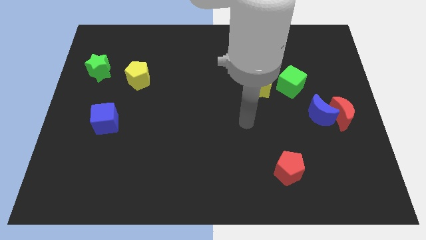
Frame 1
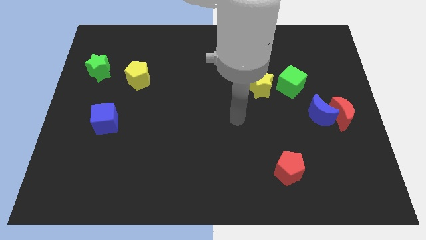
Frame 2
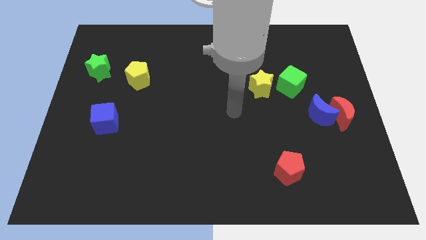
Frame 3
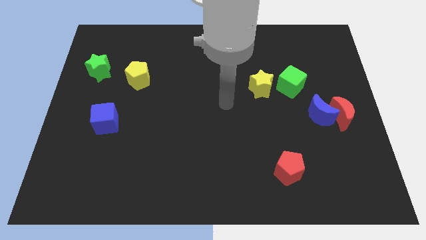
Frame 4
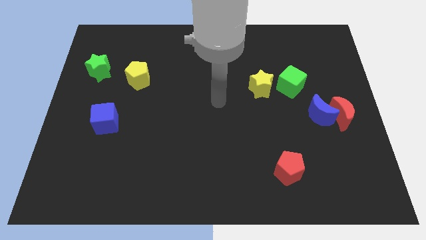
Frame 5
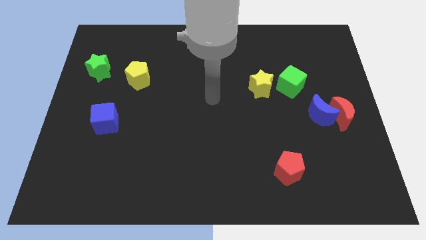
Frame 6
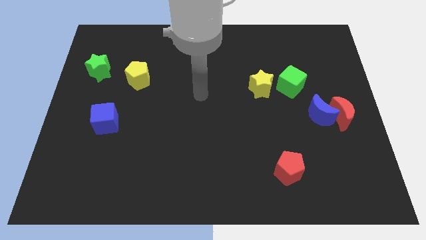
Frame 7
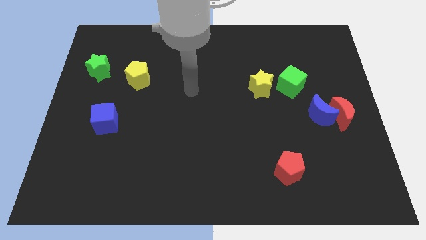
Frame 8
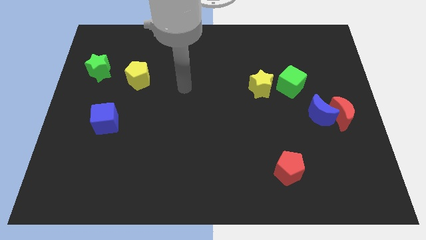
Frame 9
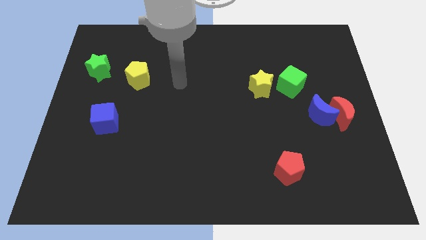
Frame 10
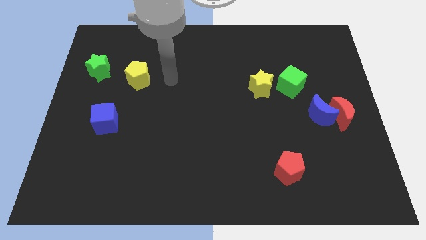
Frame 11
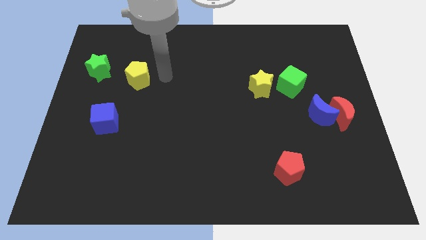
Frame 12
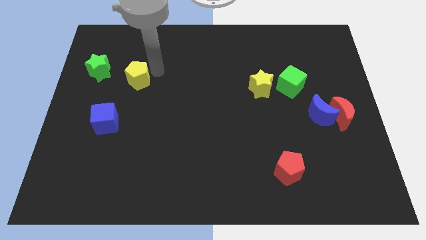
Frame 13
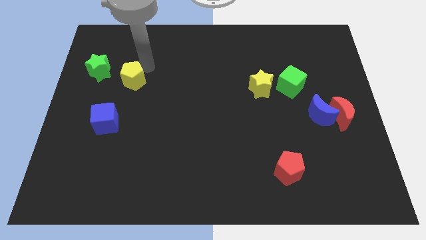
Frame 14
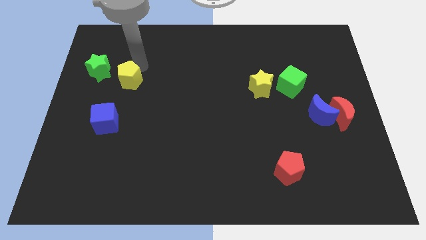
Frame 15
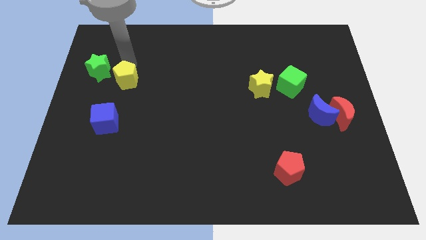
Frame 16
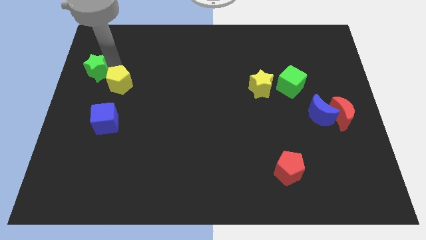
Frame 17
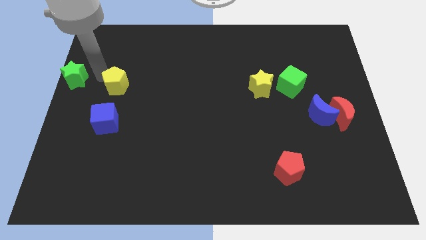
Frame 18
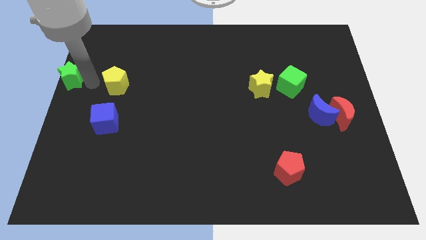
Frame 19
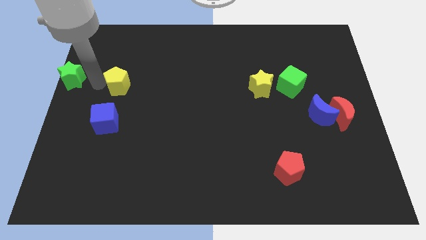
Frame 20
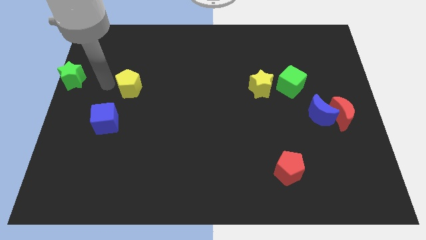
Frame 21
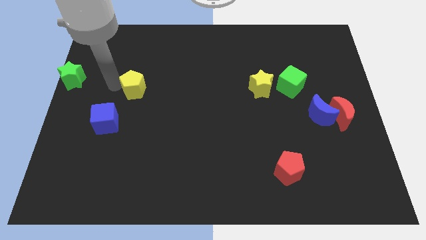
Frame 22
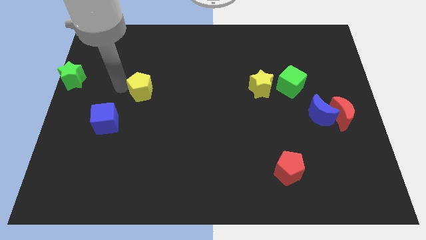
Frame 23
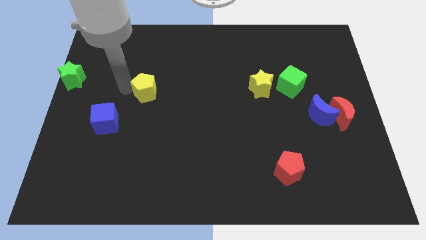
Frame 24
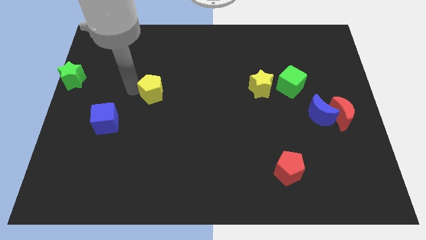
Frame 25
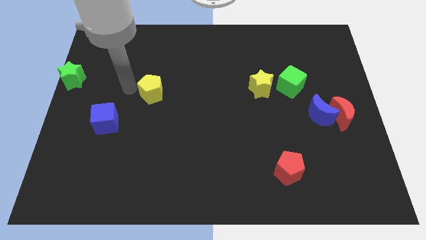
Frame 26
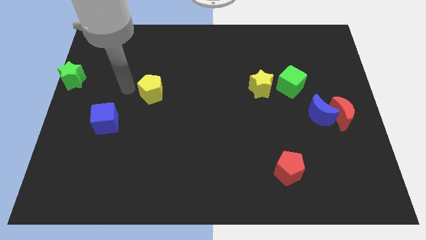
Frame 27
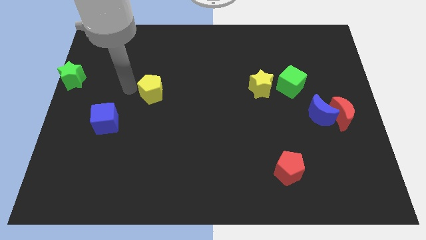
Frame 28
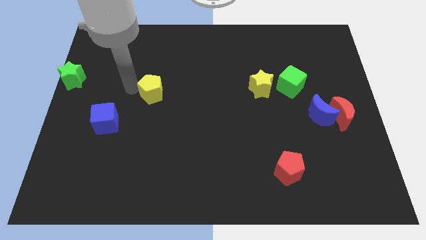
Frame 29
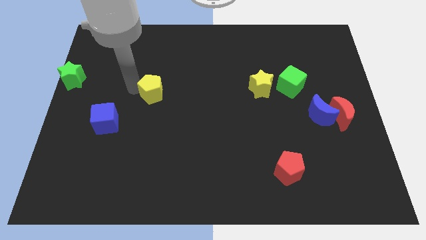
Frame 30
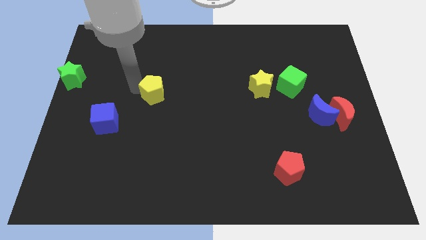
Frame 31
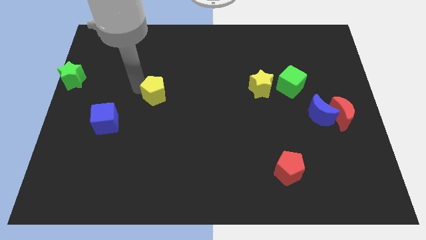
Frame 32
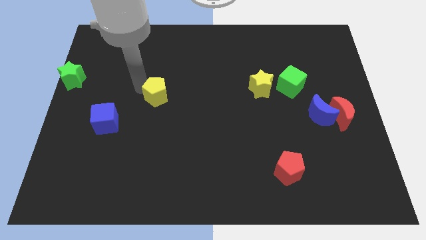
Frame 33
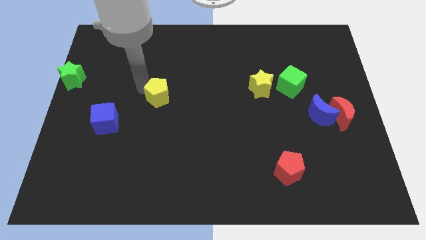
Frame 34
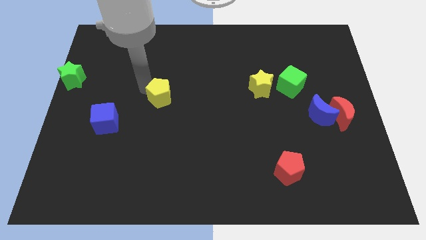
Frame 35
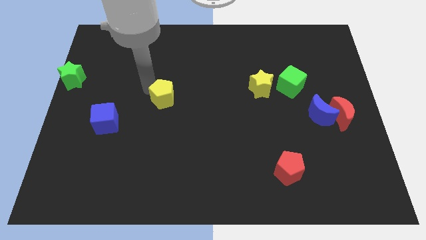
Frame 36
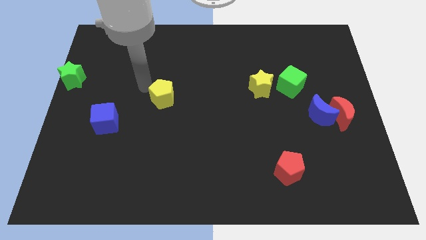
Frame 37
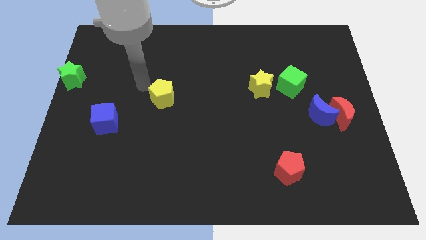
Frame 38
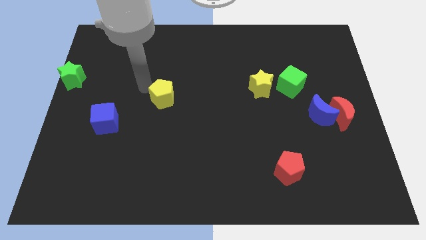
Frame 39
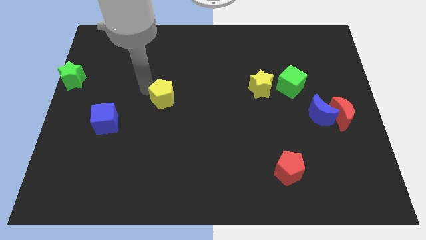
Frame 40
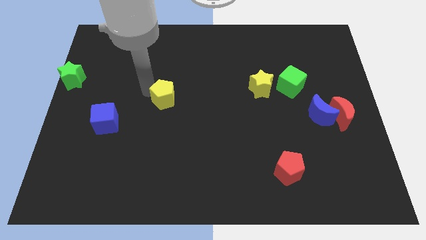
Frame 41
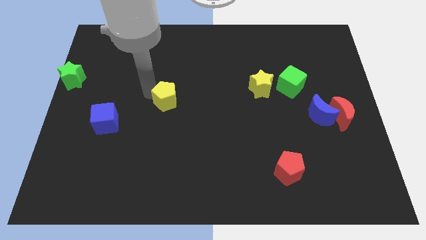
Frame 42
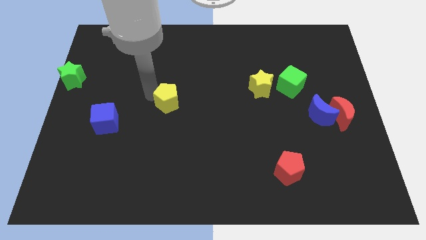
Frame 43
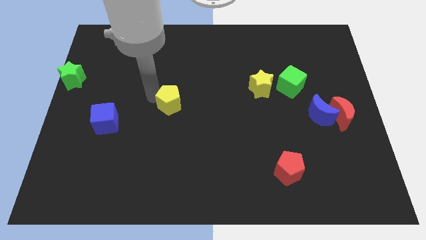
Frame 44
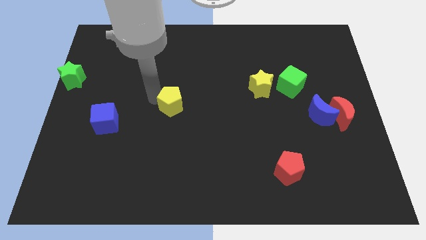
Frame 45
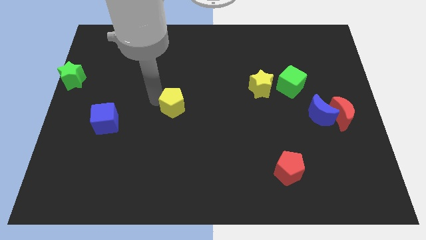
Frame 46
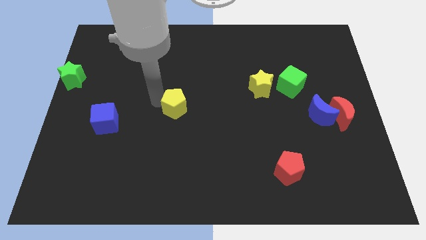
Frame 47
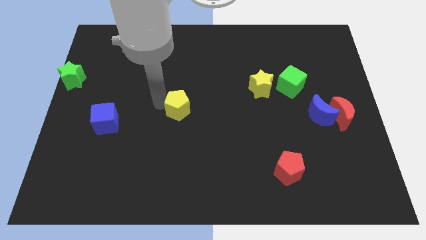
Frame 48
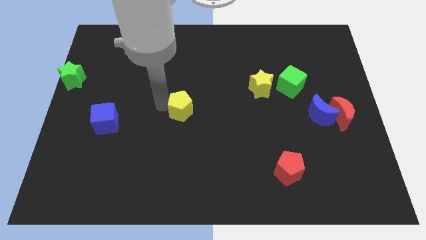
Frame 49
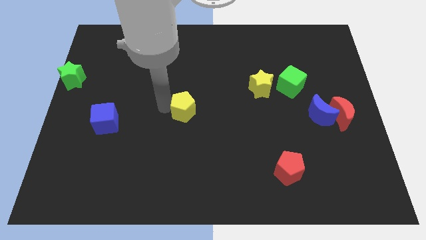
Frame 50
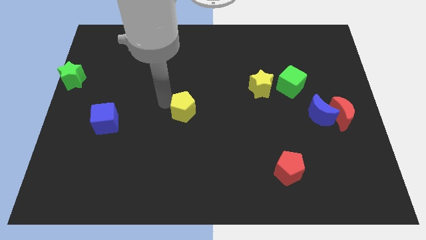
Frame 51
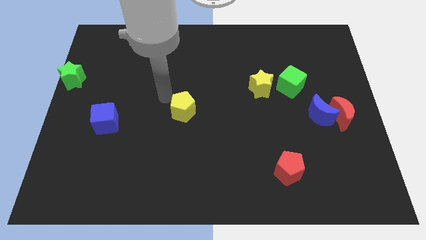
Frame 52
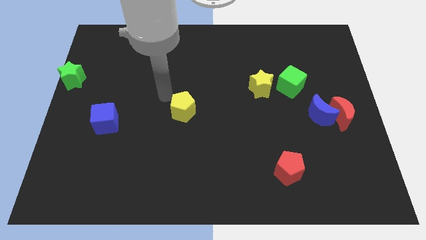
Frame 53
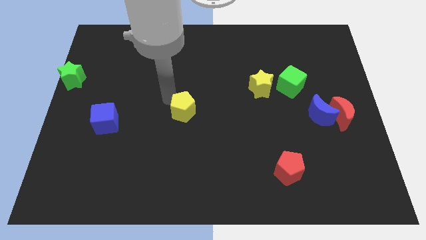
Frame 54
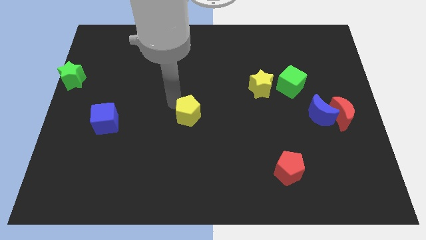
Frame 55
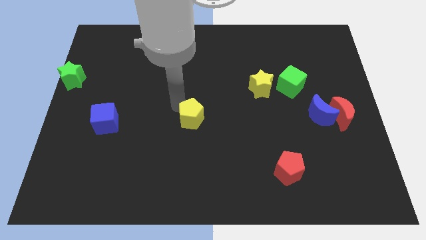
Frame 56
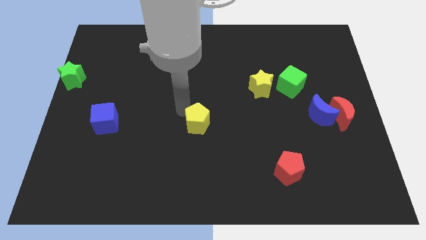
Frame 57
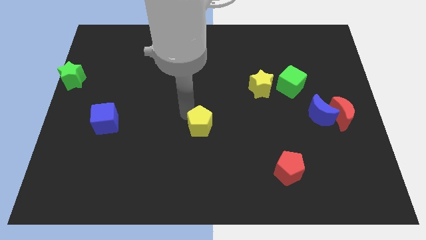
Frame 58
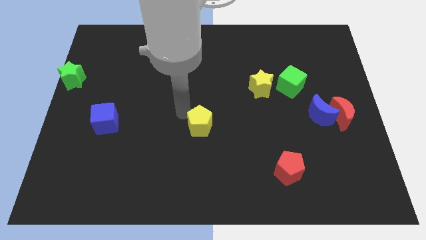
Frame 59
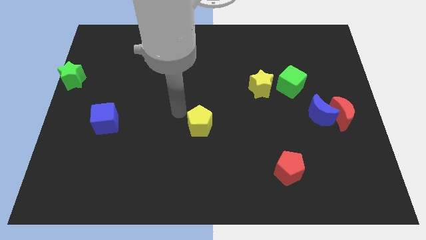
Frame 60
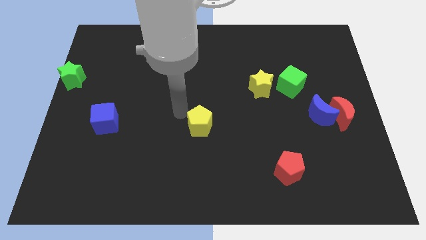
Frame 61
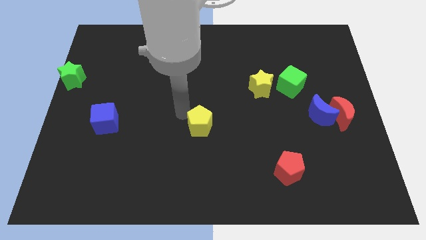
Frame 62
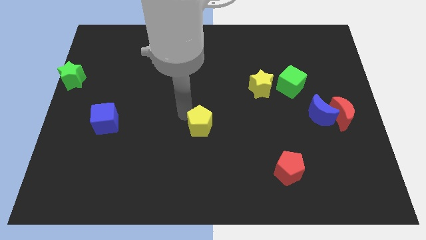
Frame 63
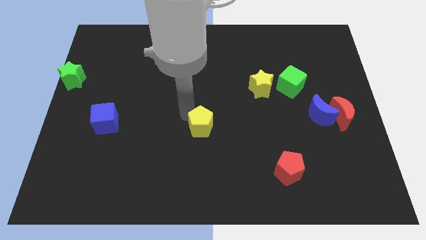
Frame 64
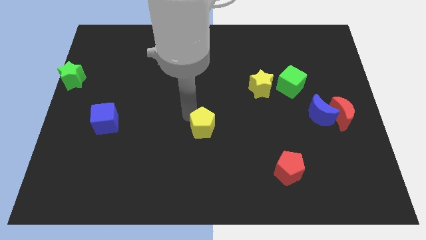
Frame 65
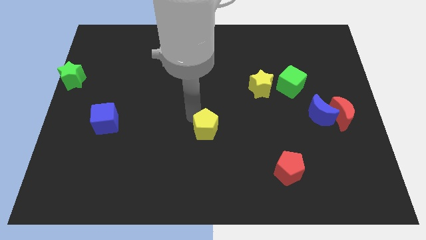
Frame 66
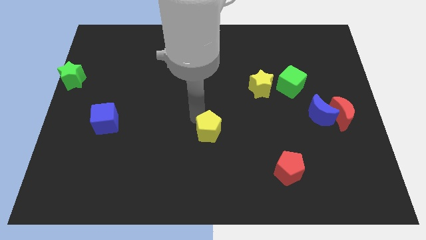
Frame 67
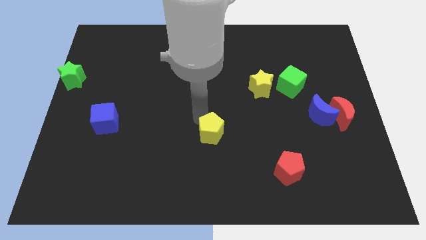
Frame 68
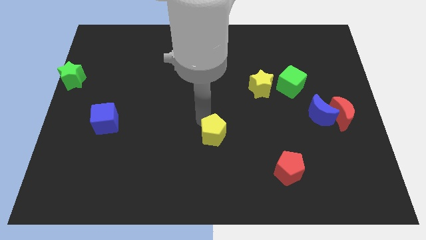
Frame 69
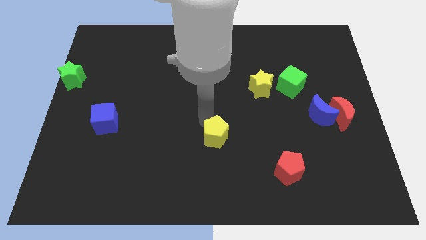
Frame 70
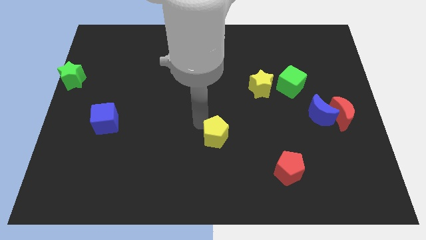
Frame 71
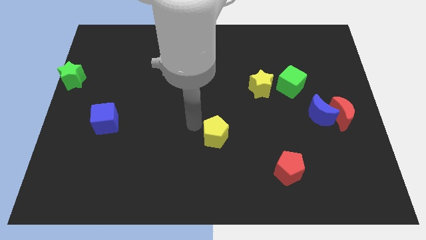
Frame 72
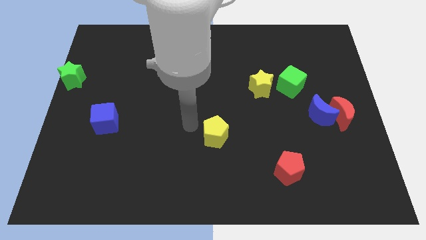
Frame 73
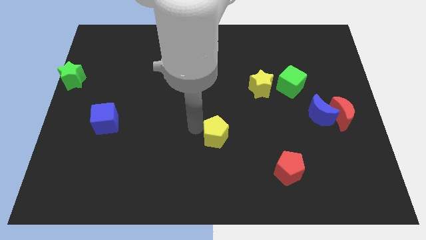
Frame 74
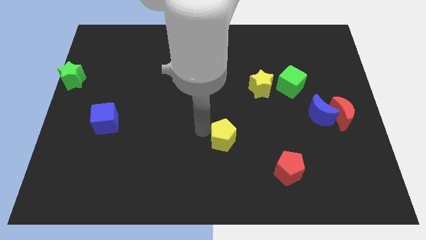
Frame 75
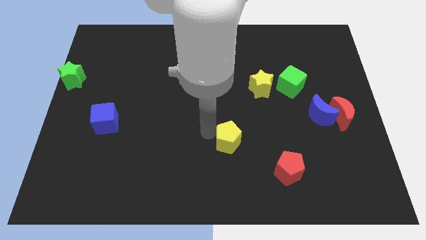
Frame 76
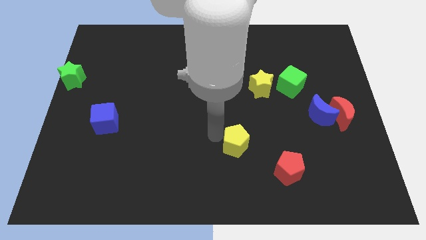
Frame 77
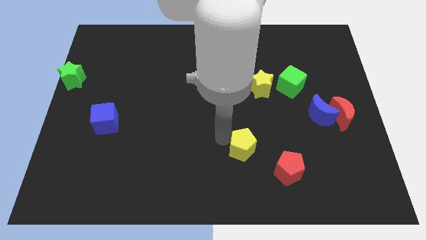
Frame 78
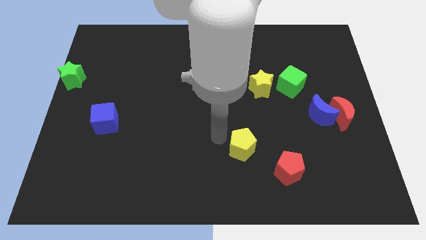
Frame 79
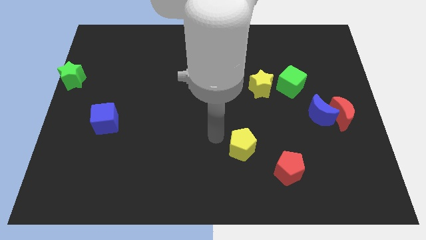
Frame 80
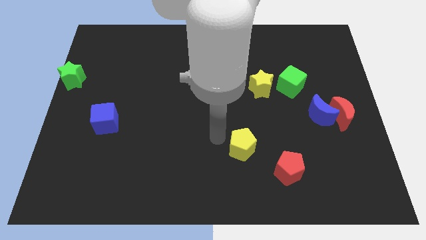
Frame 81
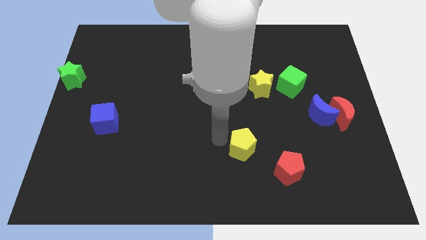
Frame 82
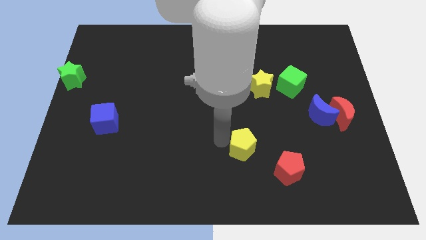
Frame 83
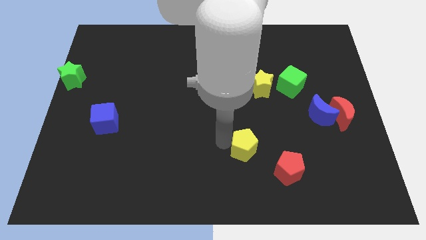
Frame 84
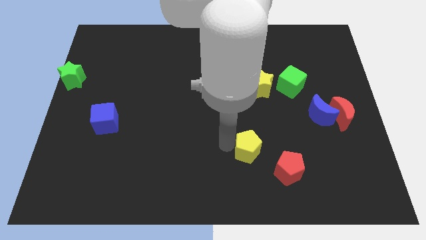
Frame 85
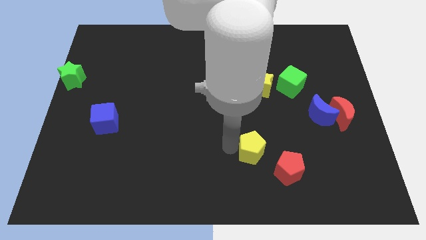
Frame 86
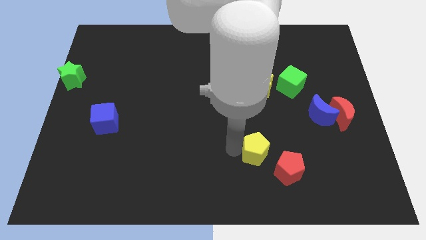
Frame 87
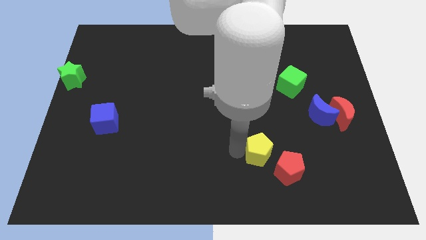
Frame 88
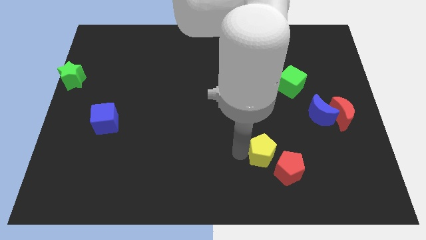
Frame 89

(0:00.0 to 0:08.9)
push the yellow pentagon close to the red pentagon
